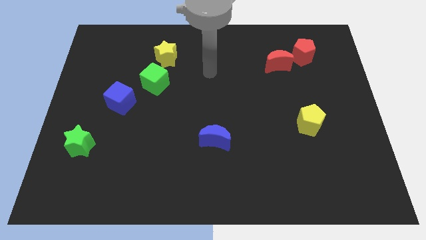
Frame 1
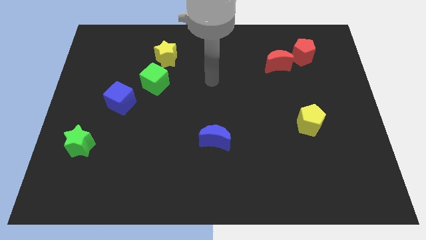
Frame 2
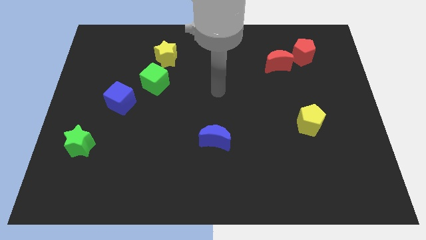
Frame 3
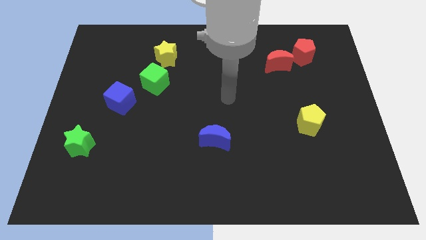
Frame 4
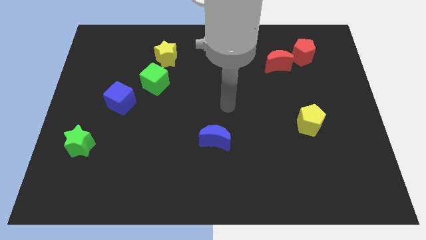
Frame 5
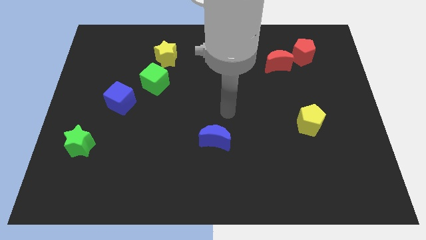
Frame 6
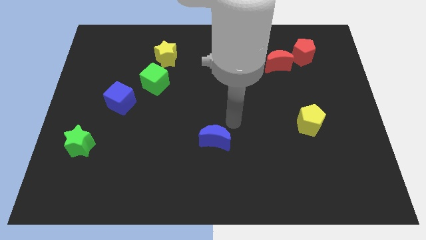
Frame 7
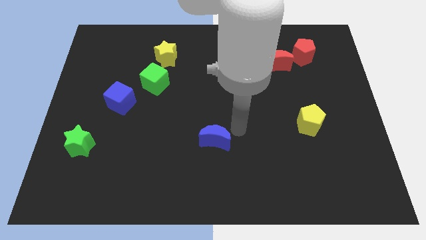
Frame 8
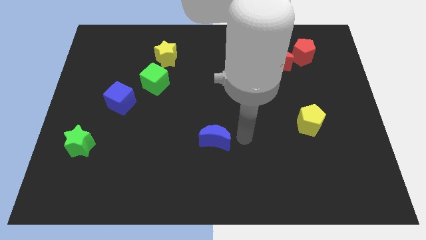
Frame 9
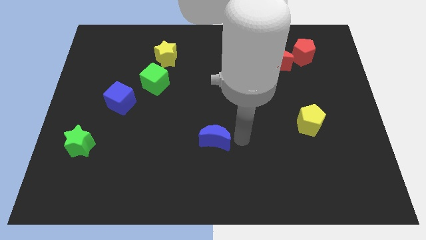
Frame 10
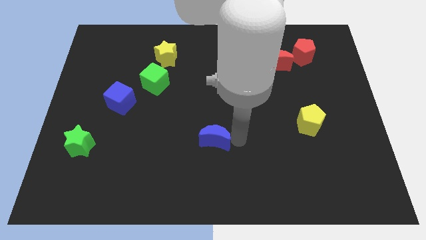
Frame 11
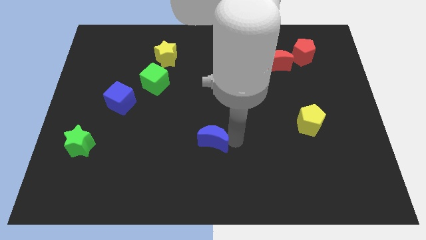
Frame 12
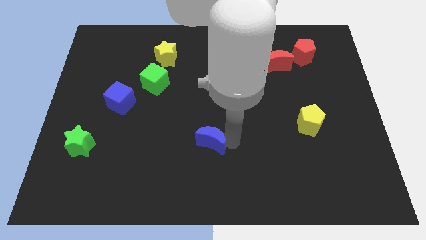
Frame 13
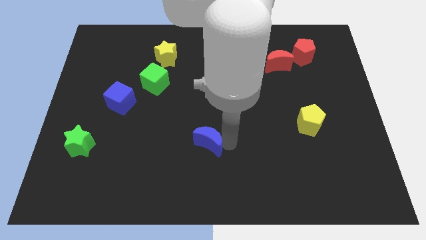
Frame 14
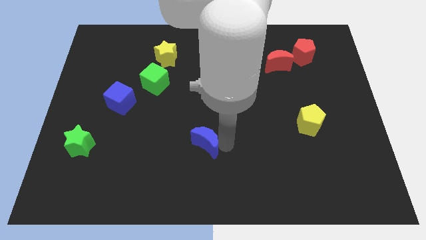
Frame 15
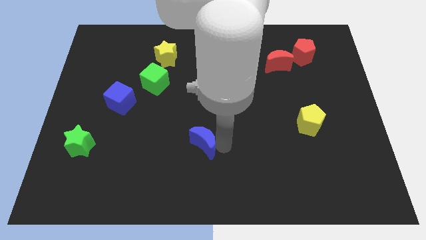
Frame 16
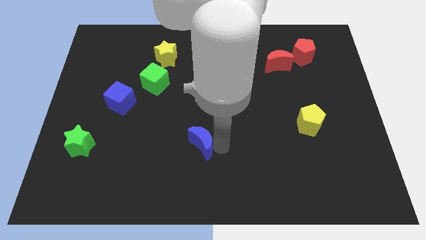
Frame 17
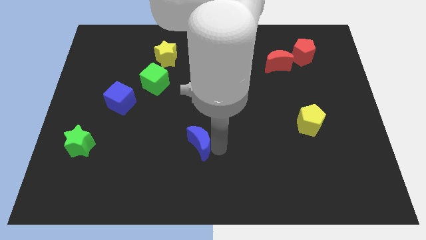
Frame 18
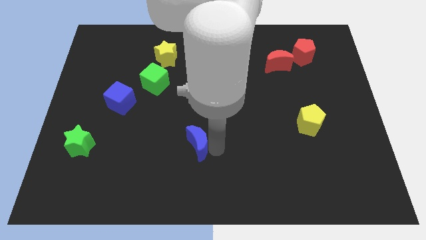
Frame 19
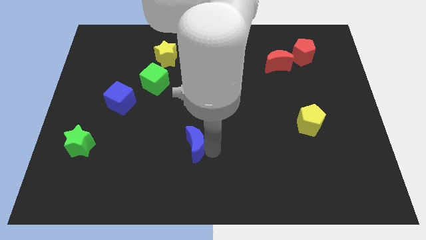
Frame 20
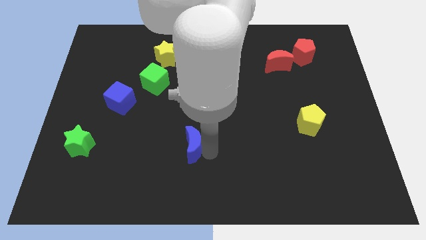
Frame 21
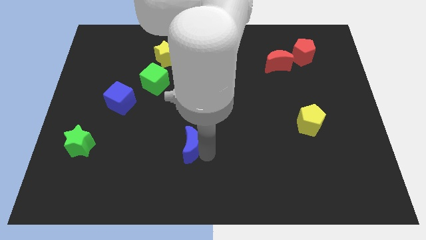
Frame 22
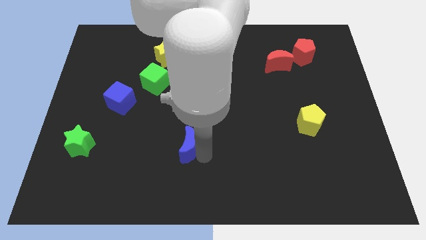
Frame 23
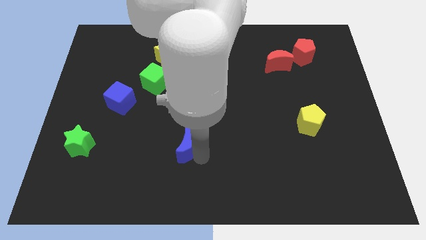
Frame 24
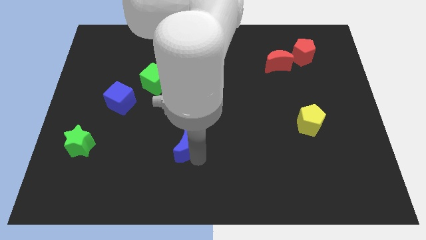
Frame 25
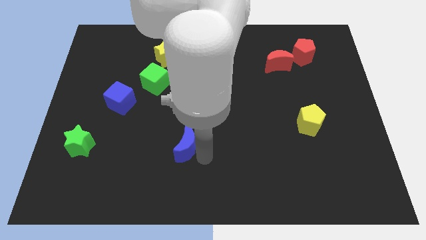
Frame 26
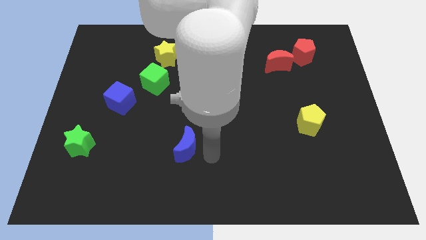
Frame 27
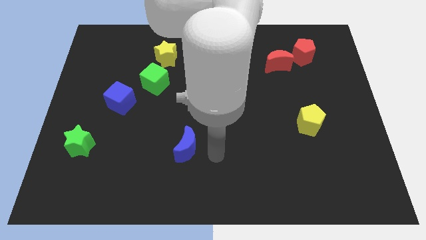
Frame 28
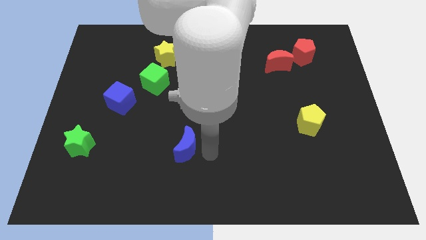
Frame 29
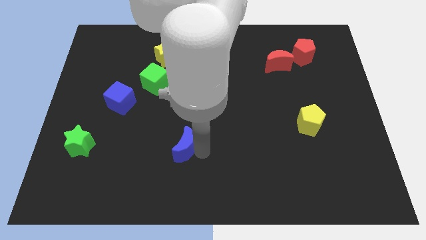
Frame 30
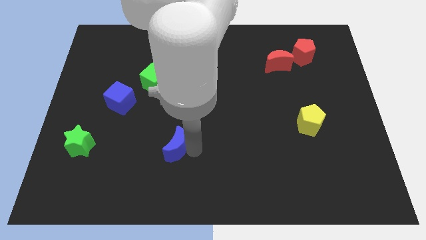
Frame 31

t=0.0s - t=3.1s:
slightly move the blue moon left

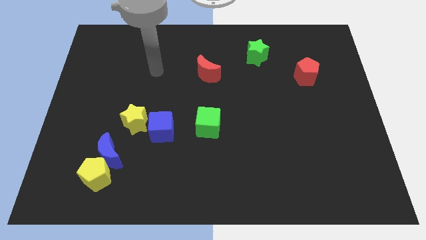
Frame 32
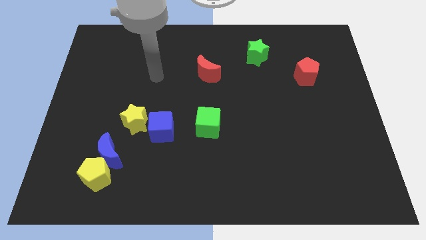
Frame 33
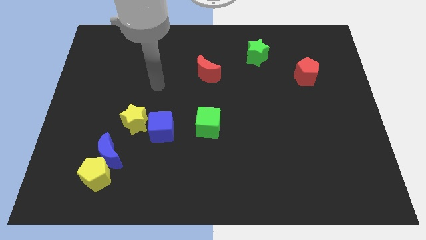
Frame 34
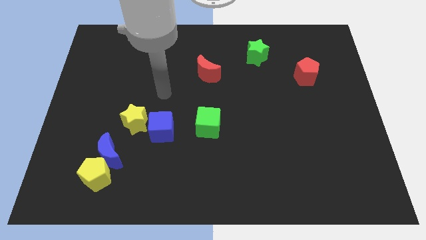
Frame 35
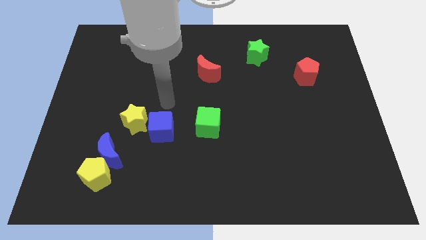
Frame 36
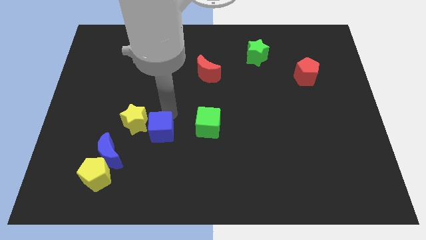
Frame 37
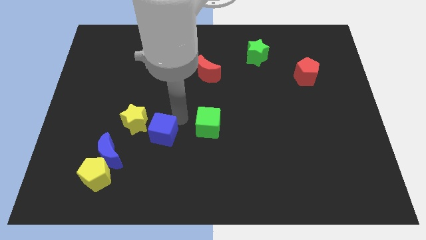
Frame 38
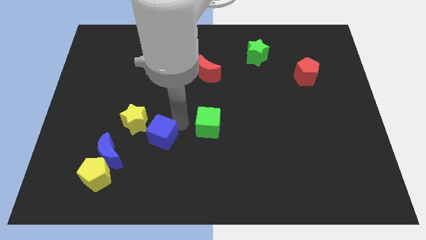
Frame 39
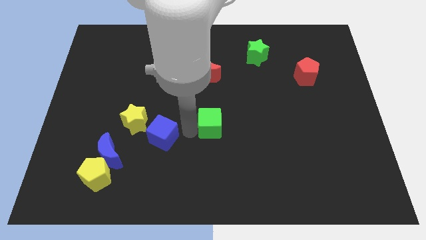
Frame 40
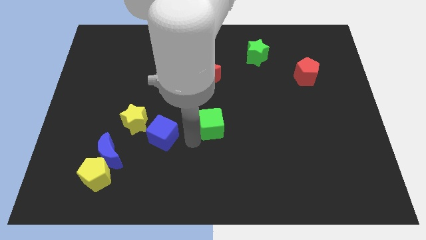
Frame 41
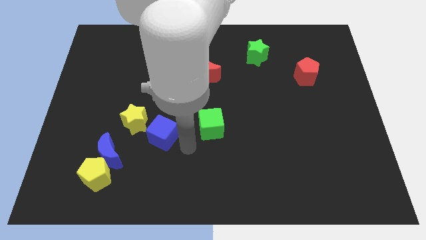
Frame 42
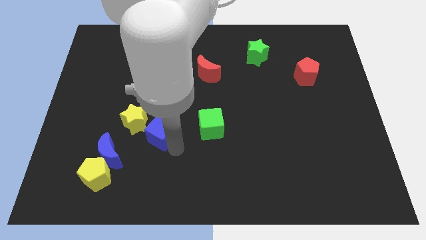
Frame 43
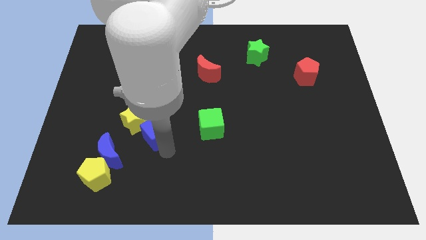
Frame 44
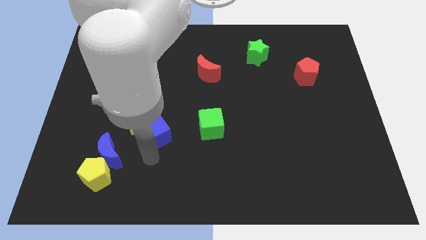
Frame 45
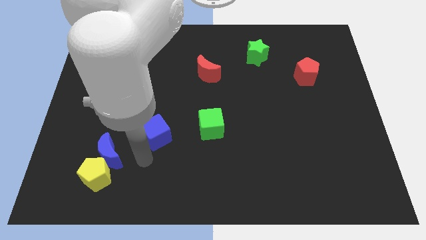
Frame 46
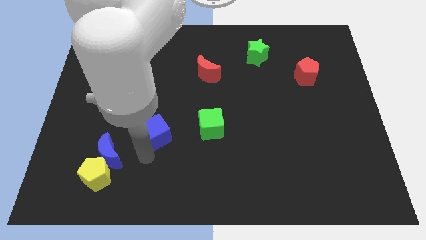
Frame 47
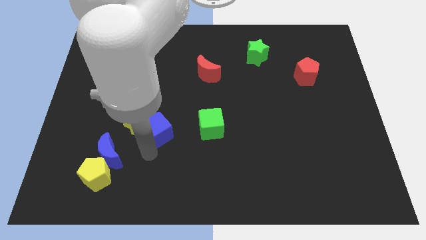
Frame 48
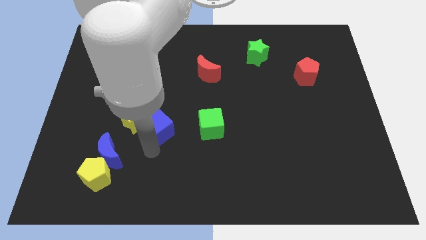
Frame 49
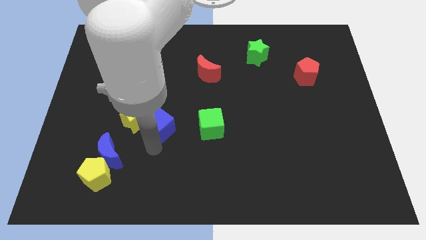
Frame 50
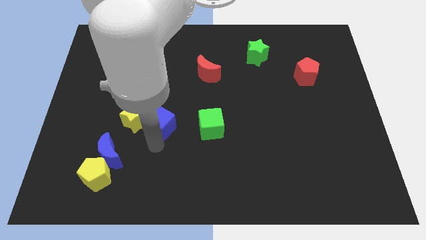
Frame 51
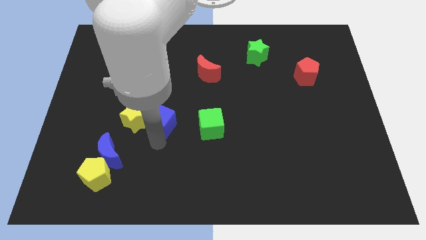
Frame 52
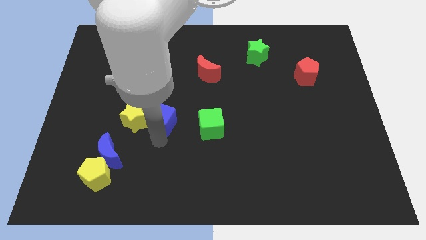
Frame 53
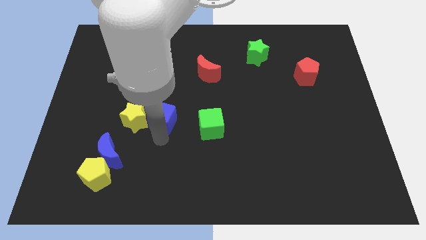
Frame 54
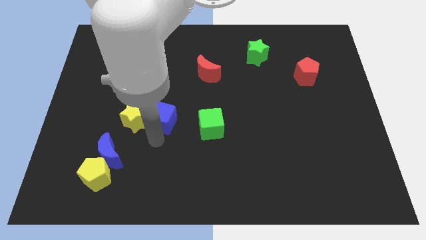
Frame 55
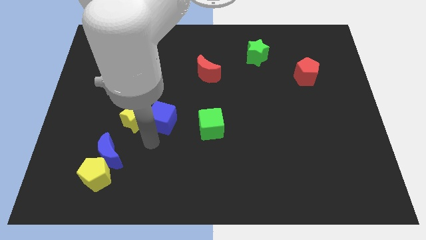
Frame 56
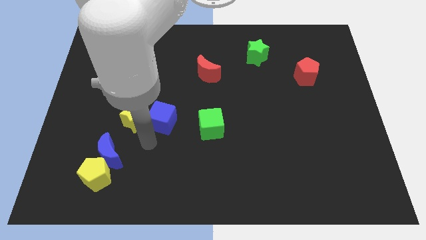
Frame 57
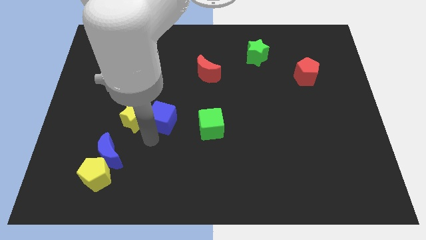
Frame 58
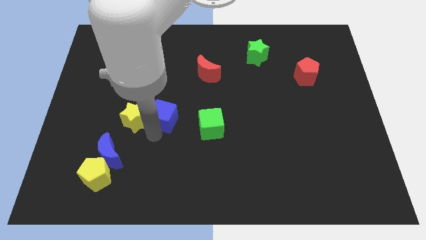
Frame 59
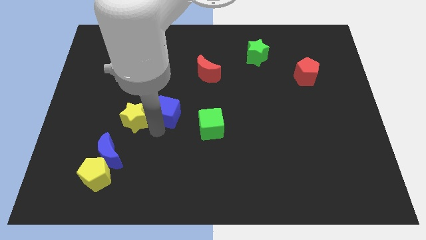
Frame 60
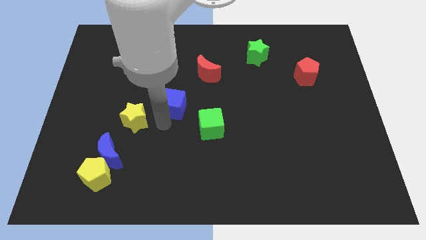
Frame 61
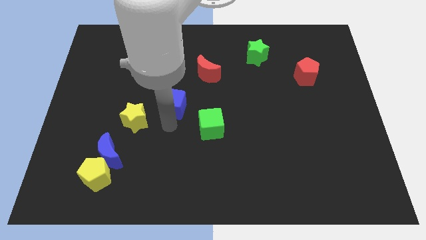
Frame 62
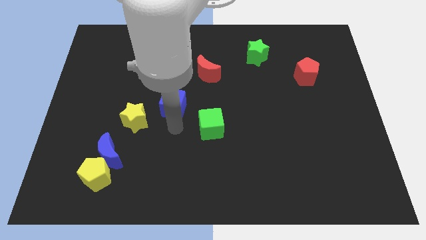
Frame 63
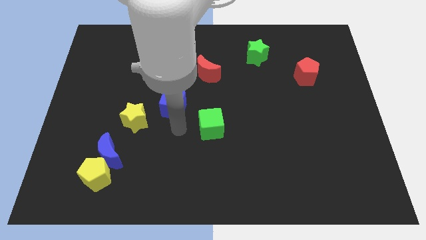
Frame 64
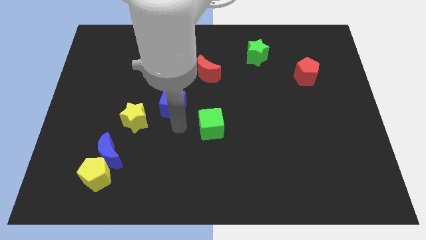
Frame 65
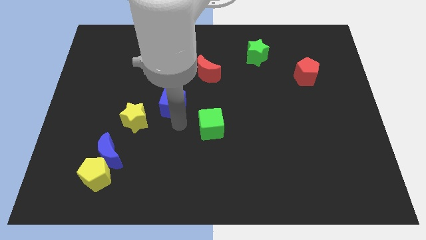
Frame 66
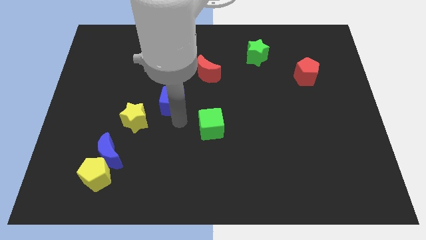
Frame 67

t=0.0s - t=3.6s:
move the blue cube up a bit

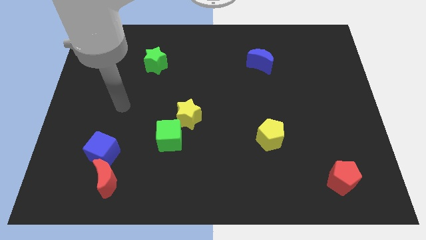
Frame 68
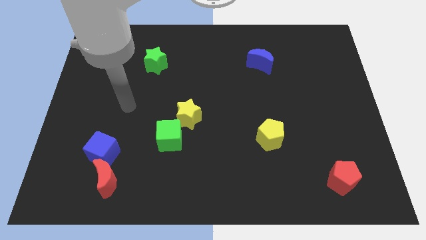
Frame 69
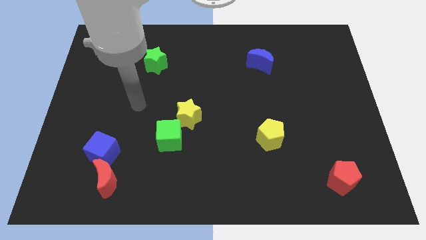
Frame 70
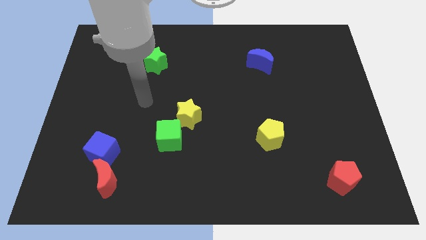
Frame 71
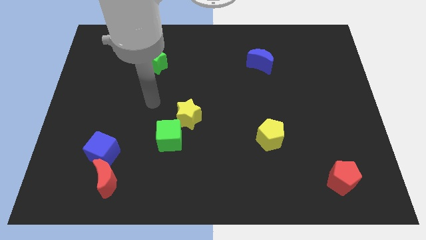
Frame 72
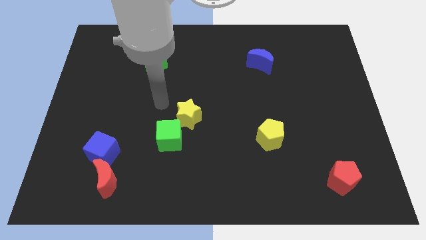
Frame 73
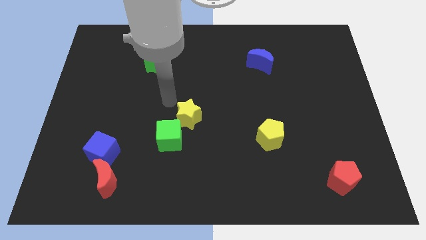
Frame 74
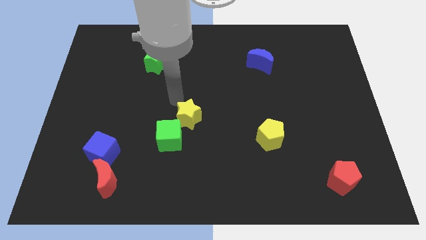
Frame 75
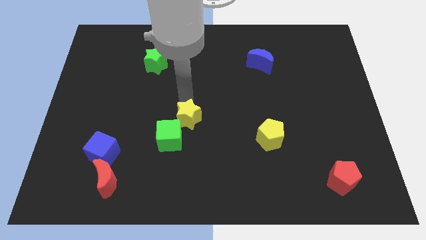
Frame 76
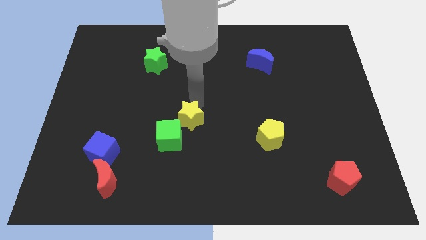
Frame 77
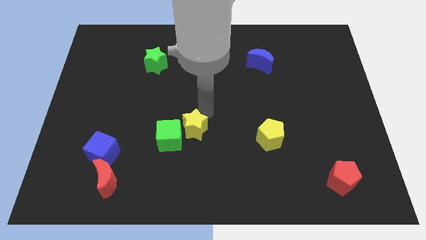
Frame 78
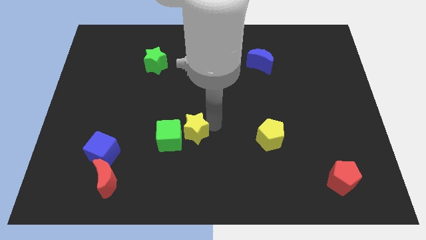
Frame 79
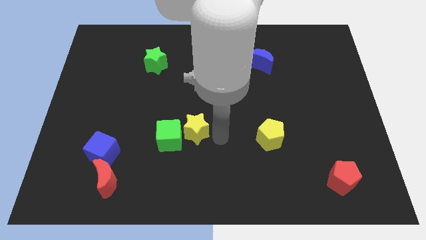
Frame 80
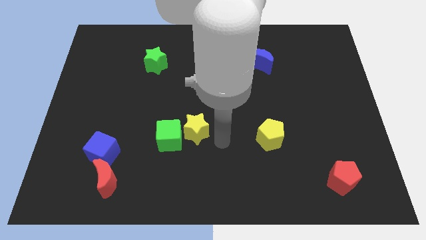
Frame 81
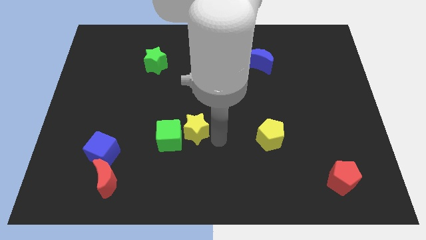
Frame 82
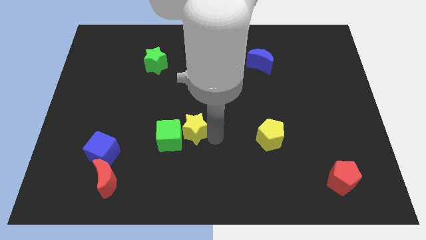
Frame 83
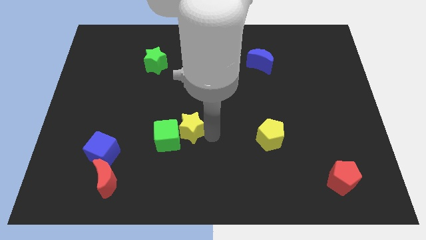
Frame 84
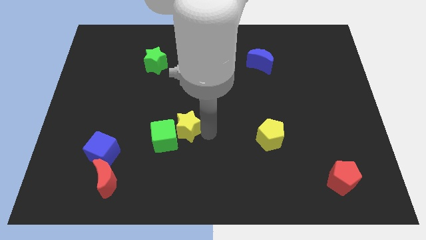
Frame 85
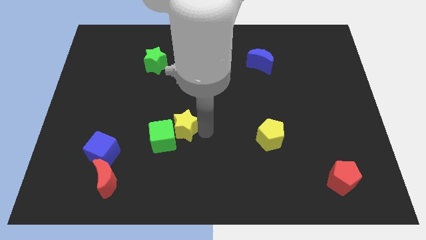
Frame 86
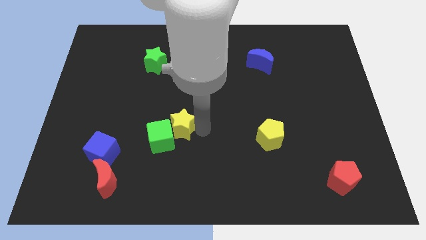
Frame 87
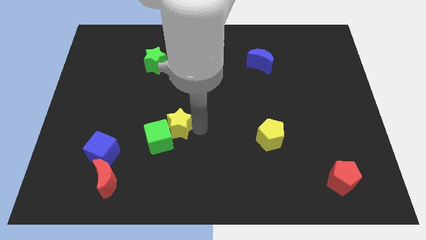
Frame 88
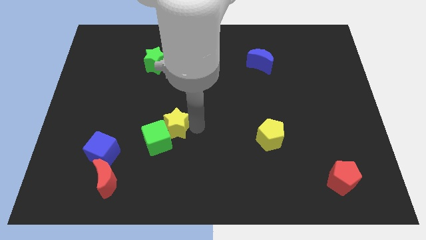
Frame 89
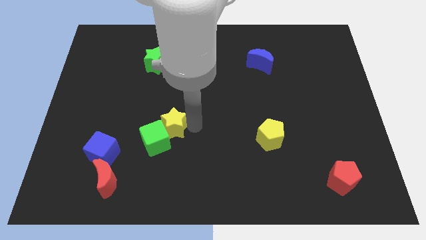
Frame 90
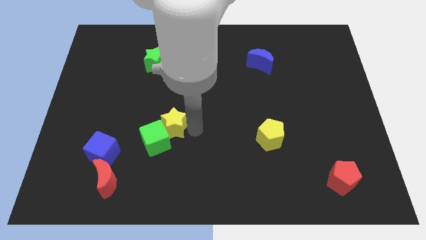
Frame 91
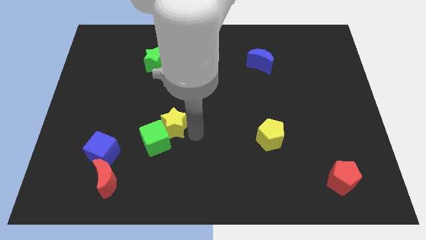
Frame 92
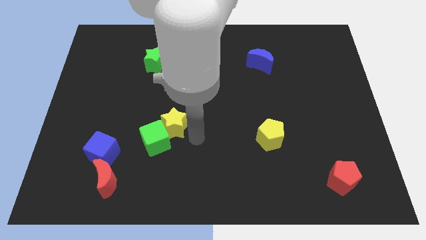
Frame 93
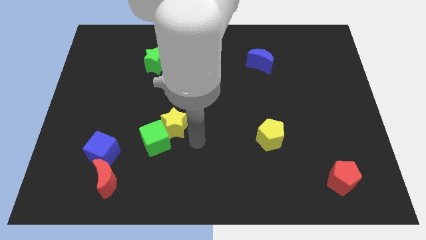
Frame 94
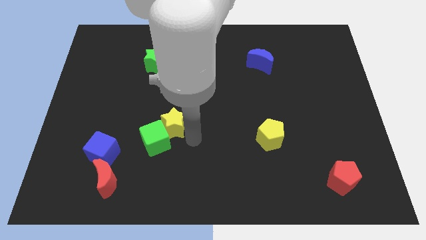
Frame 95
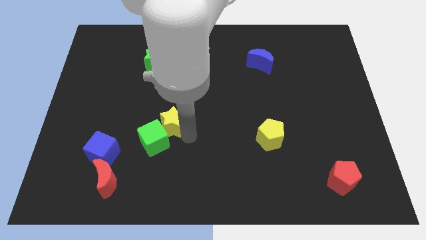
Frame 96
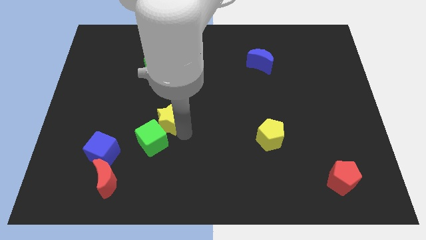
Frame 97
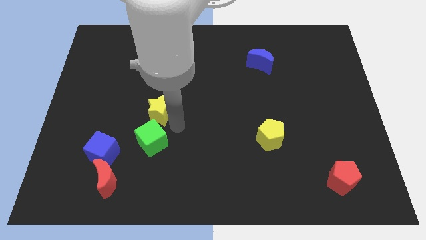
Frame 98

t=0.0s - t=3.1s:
slightly push the yellow star left
